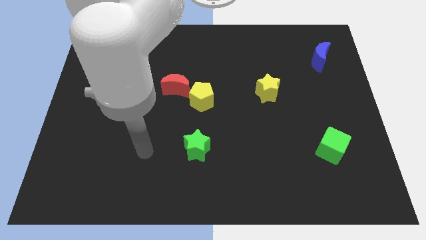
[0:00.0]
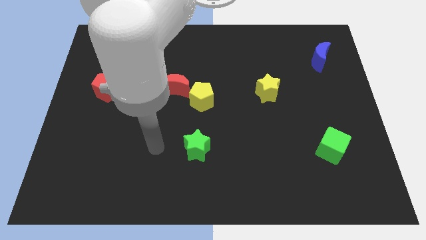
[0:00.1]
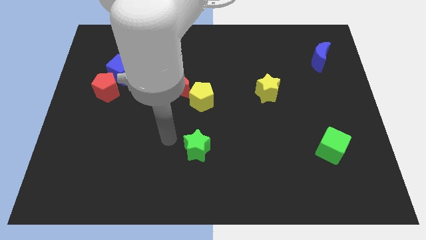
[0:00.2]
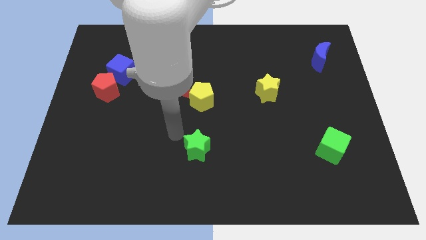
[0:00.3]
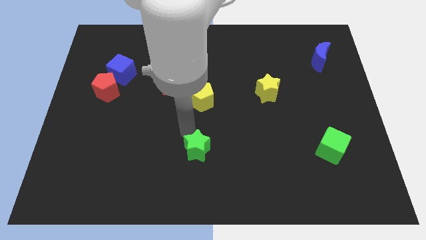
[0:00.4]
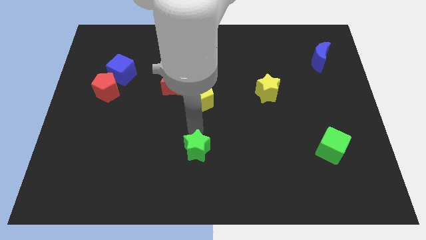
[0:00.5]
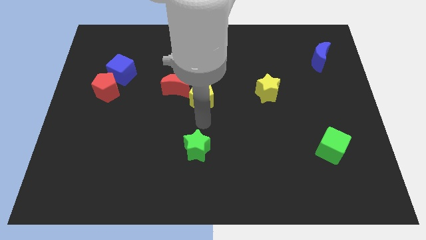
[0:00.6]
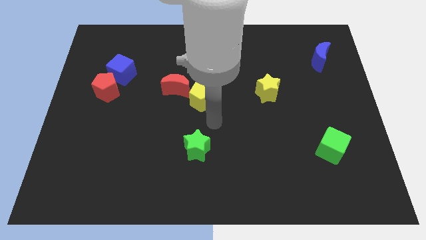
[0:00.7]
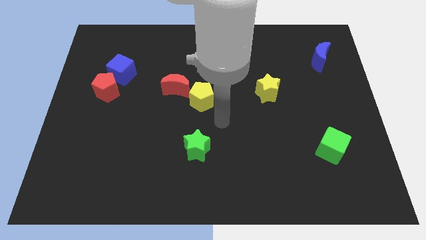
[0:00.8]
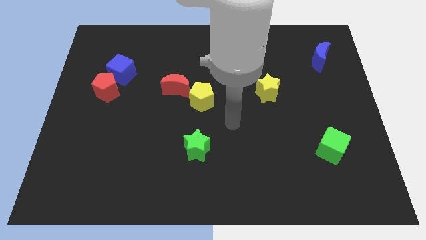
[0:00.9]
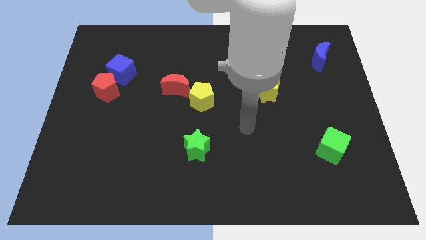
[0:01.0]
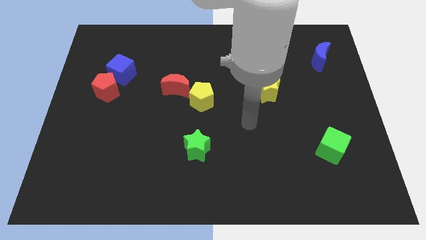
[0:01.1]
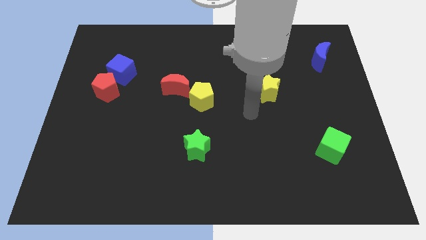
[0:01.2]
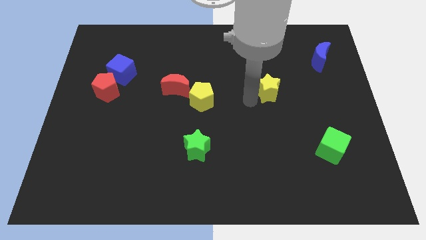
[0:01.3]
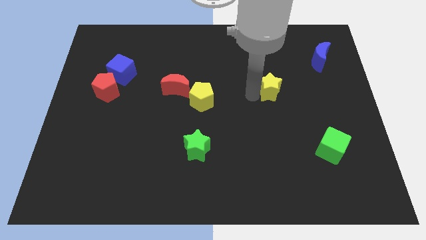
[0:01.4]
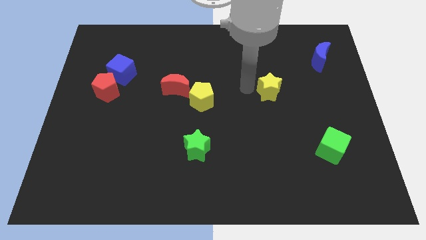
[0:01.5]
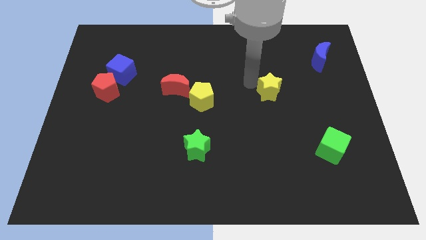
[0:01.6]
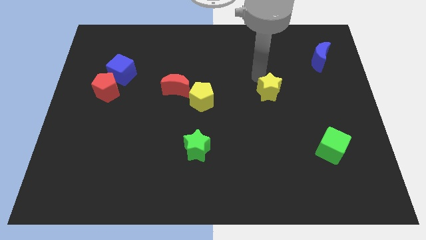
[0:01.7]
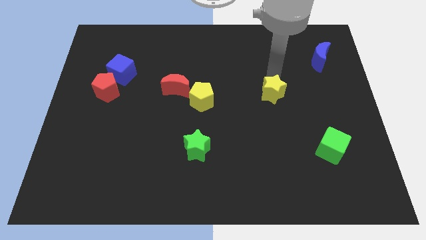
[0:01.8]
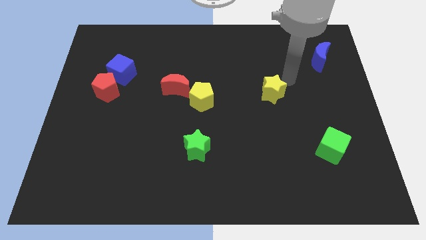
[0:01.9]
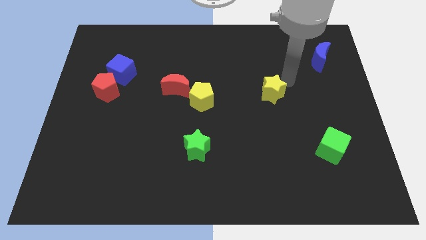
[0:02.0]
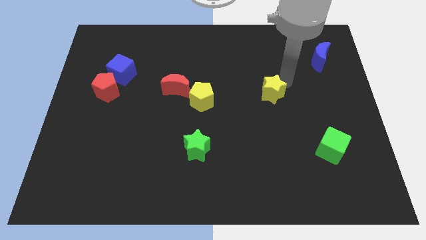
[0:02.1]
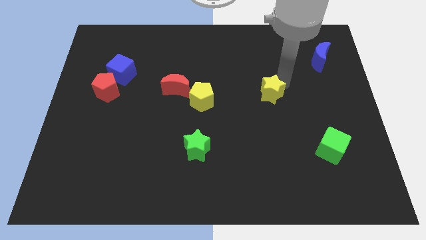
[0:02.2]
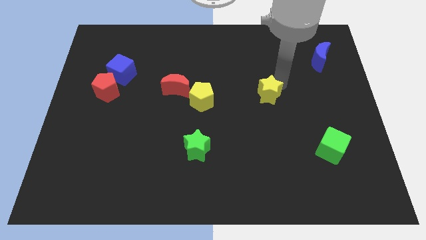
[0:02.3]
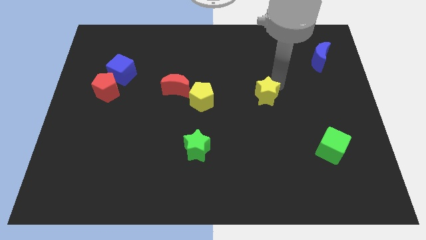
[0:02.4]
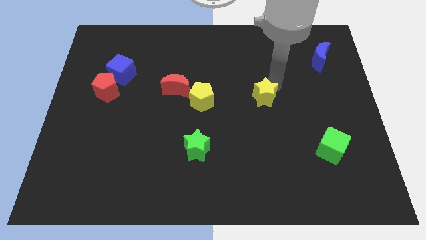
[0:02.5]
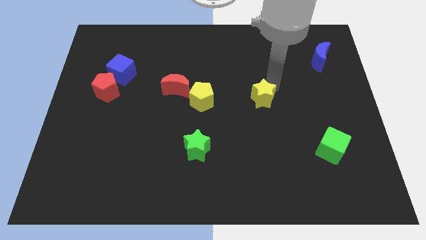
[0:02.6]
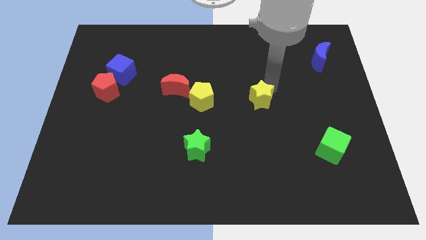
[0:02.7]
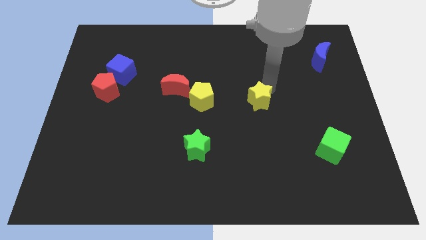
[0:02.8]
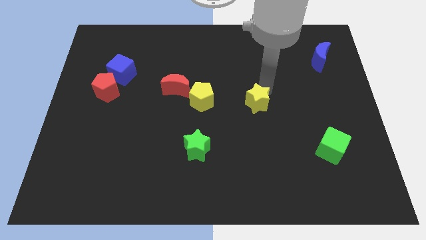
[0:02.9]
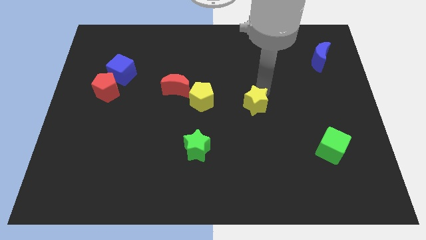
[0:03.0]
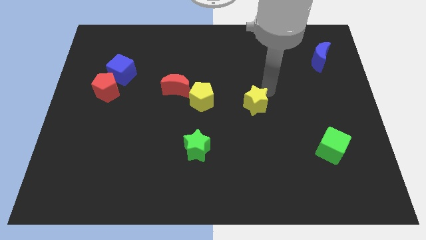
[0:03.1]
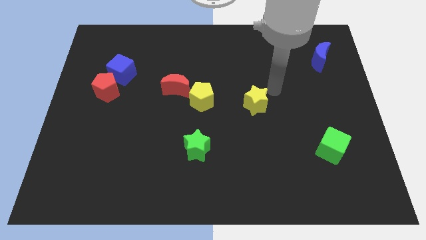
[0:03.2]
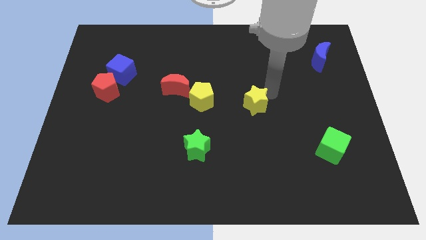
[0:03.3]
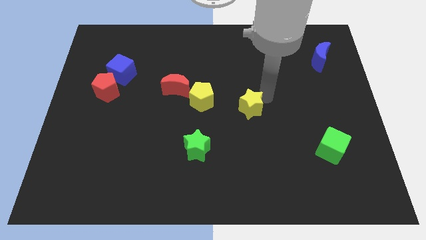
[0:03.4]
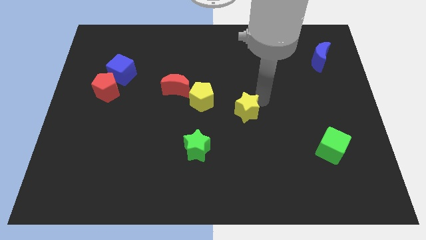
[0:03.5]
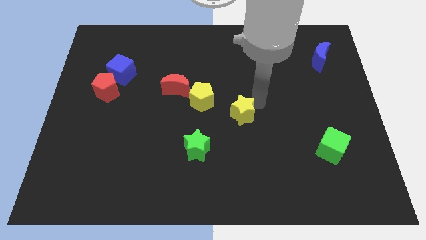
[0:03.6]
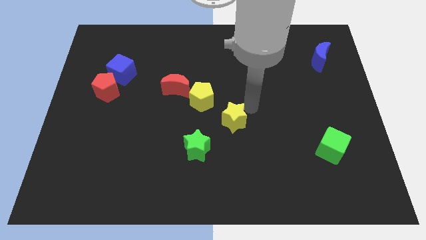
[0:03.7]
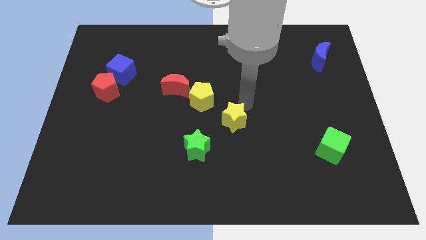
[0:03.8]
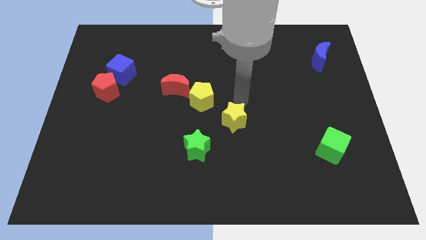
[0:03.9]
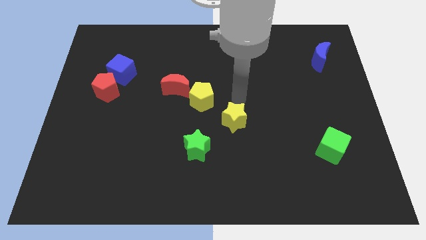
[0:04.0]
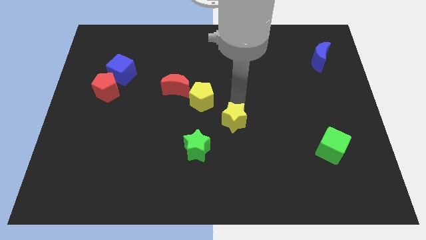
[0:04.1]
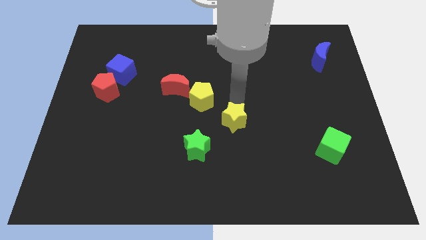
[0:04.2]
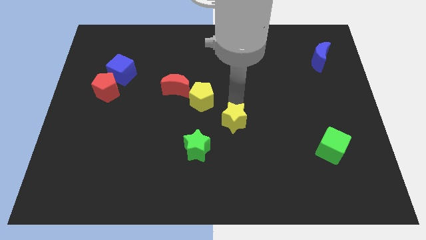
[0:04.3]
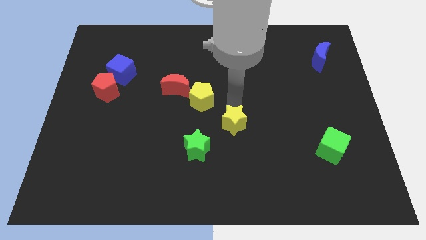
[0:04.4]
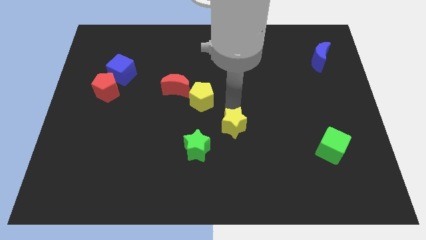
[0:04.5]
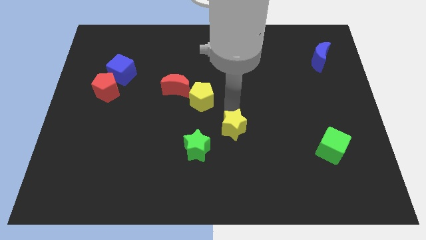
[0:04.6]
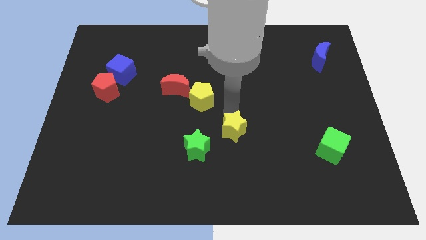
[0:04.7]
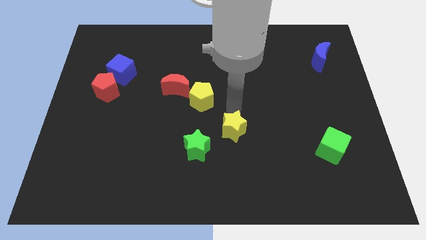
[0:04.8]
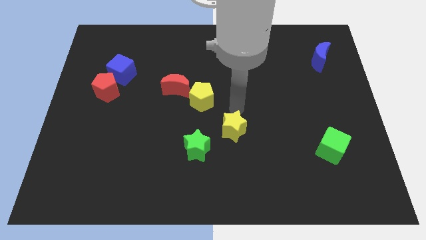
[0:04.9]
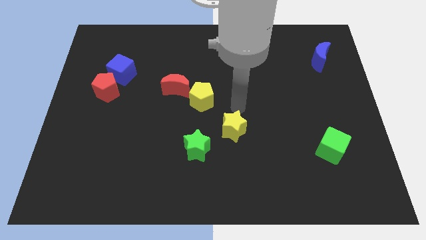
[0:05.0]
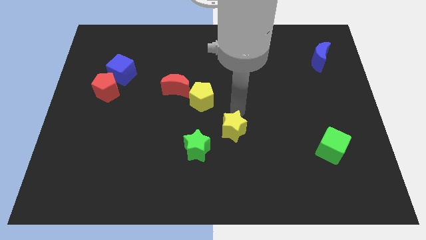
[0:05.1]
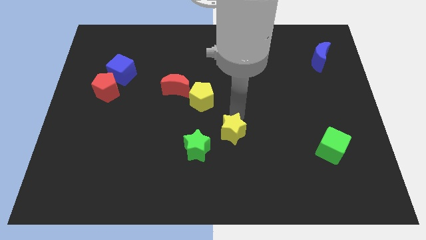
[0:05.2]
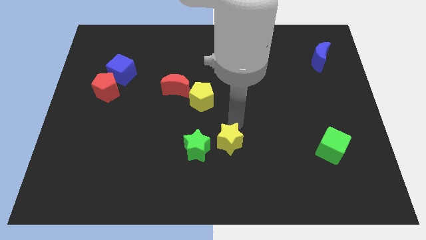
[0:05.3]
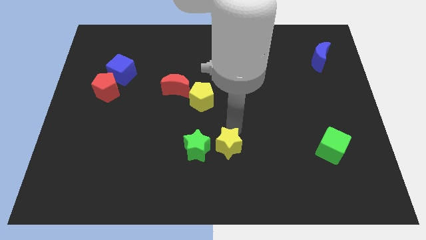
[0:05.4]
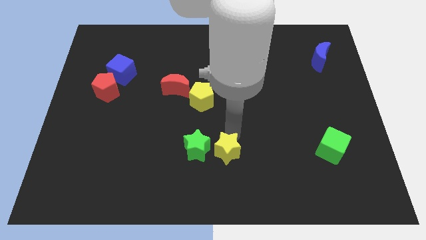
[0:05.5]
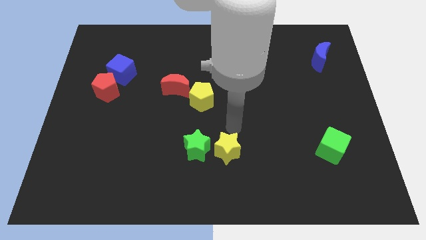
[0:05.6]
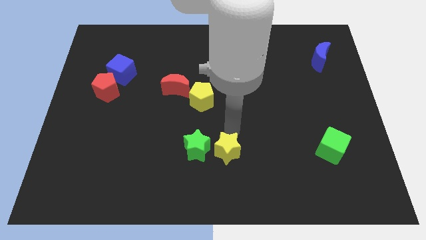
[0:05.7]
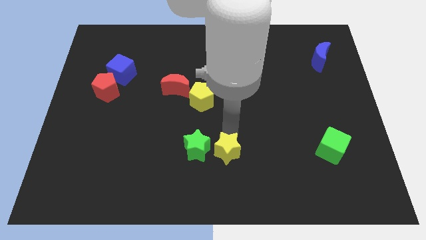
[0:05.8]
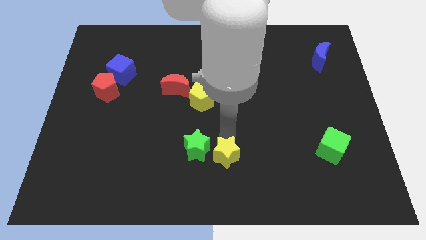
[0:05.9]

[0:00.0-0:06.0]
move the yellow star to the bottom

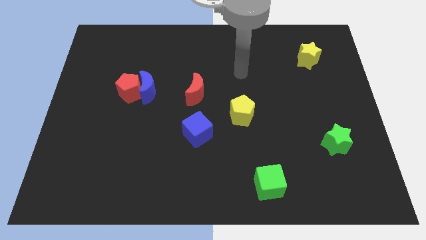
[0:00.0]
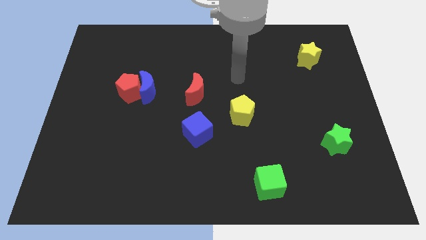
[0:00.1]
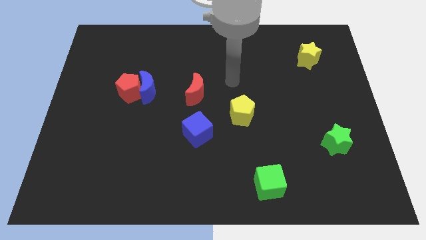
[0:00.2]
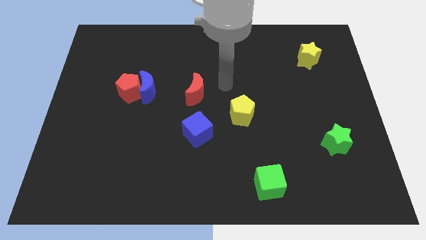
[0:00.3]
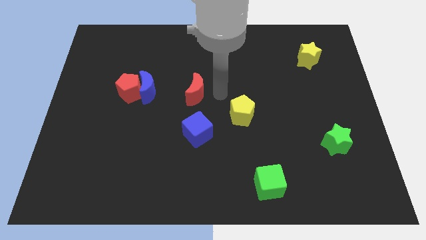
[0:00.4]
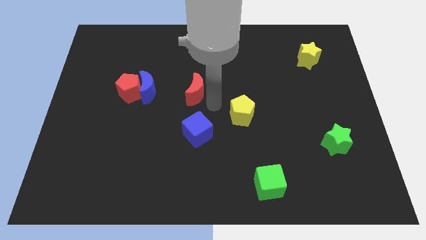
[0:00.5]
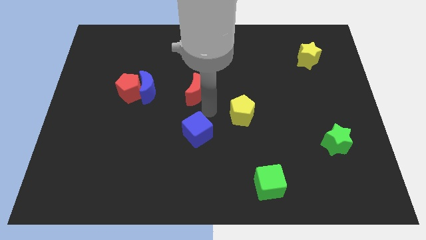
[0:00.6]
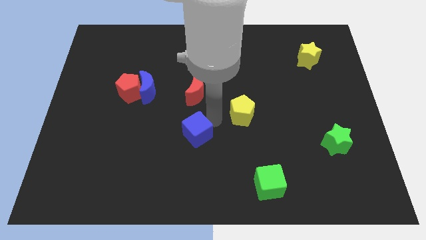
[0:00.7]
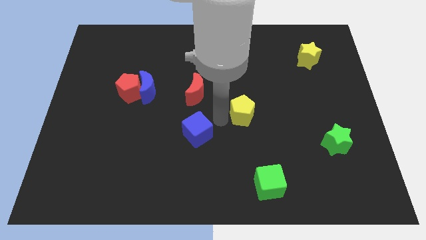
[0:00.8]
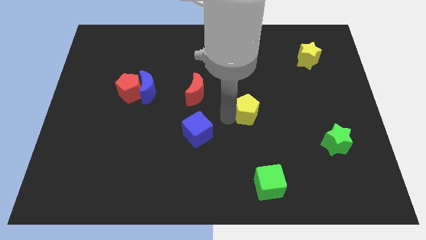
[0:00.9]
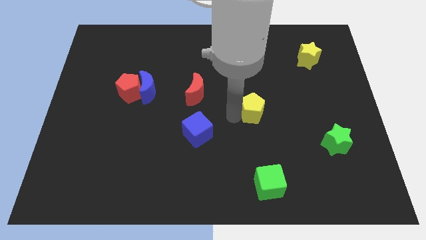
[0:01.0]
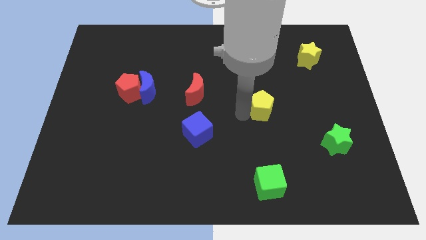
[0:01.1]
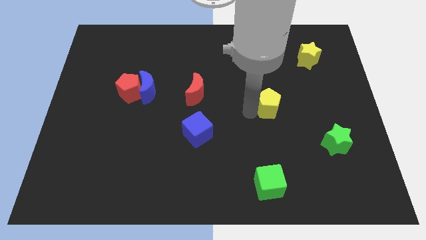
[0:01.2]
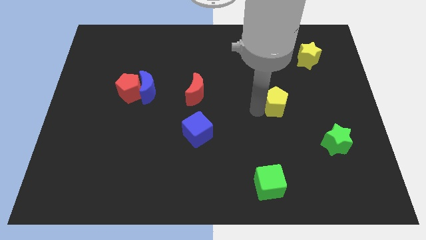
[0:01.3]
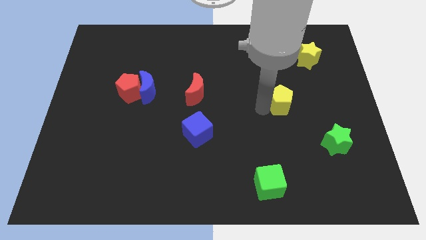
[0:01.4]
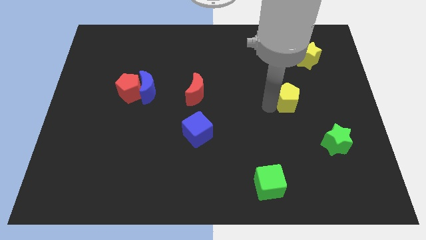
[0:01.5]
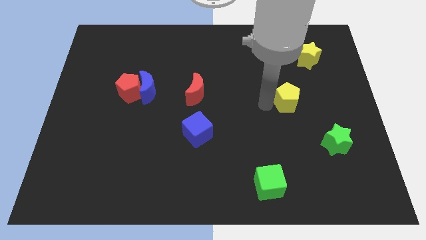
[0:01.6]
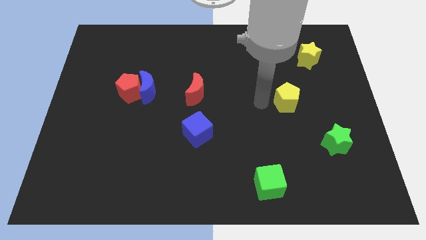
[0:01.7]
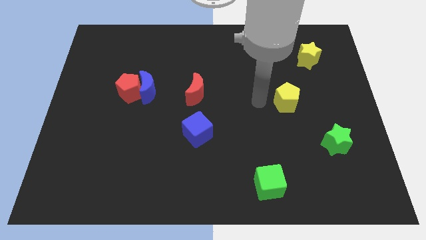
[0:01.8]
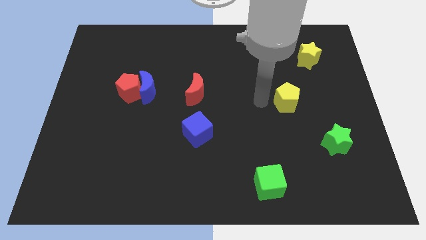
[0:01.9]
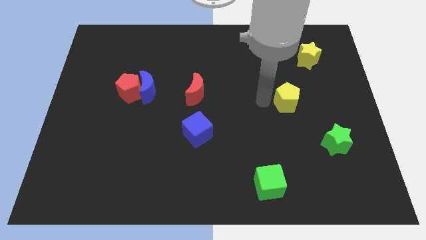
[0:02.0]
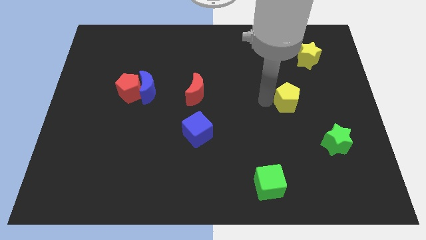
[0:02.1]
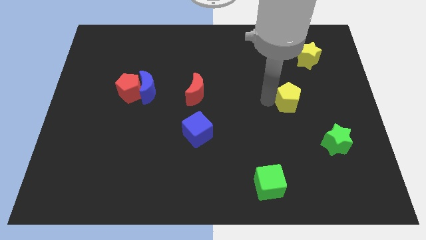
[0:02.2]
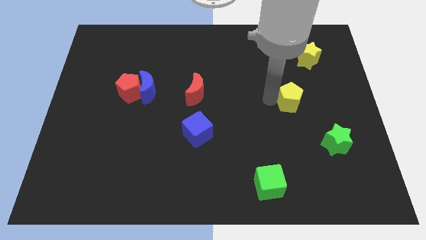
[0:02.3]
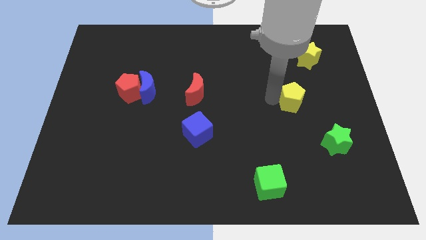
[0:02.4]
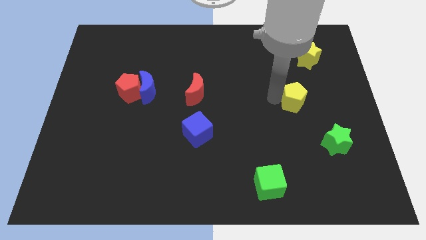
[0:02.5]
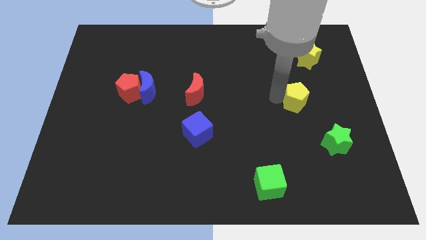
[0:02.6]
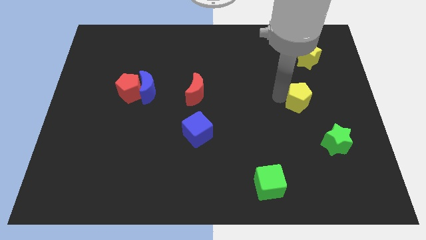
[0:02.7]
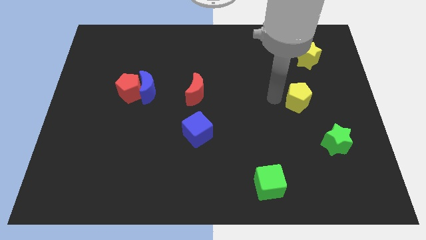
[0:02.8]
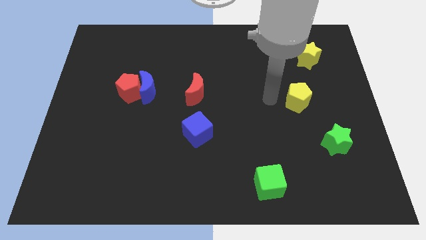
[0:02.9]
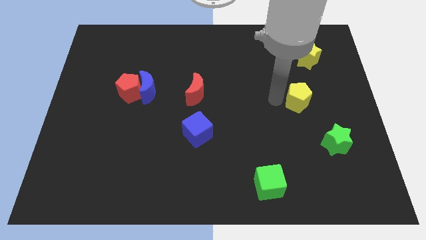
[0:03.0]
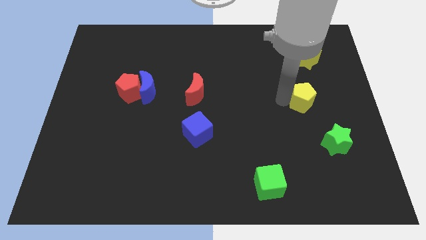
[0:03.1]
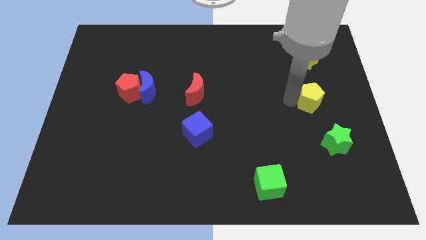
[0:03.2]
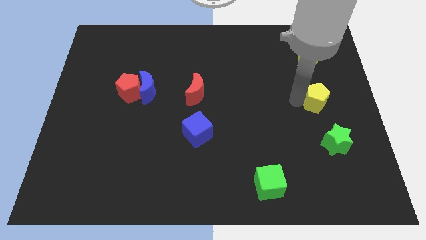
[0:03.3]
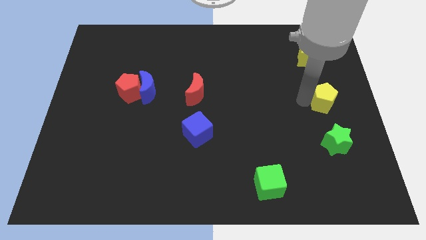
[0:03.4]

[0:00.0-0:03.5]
slide the yellow pentagon to the right side
